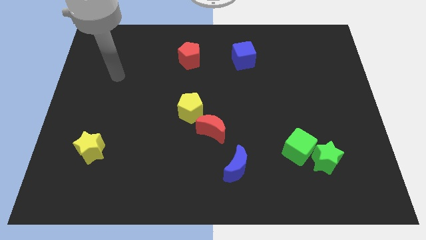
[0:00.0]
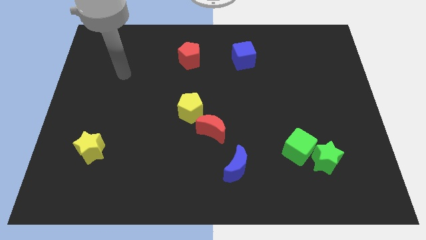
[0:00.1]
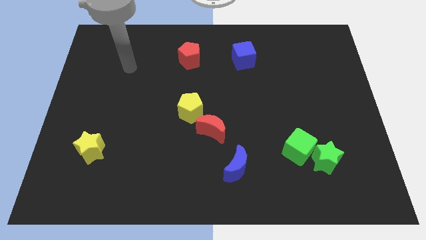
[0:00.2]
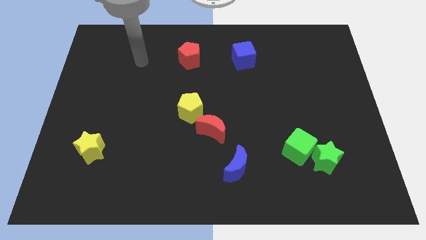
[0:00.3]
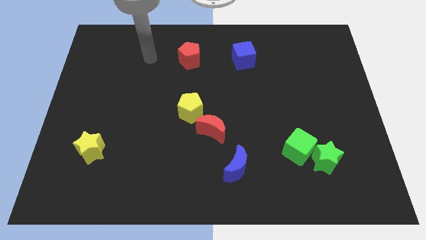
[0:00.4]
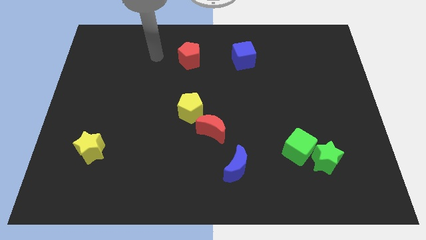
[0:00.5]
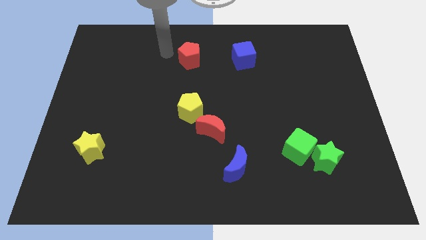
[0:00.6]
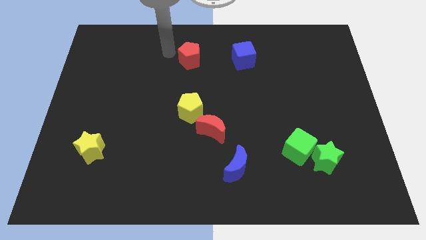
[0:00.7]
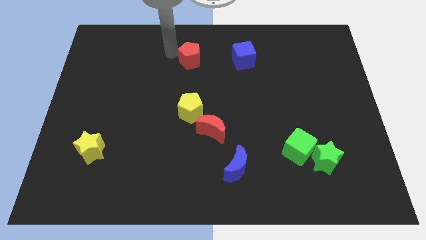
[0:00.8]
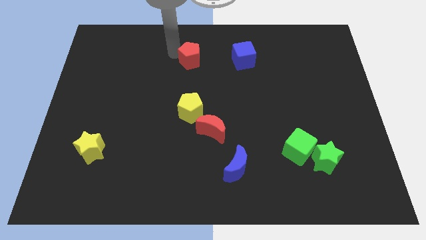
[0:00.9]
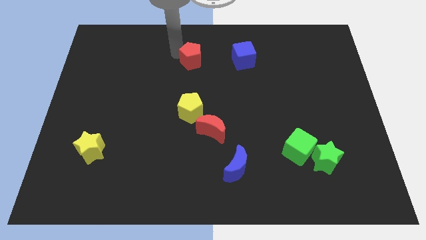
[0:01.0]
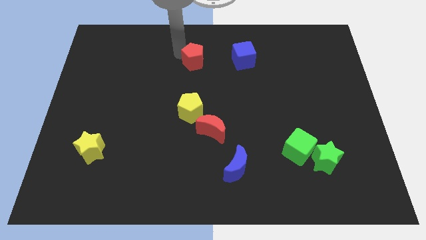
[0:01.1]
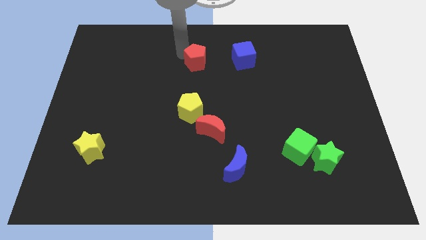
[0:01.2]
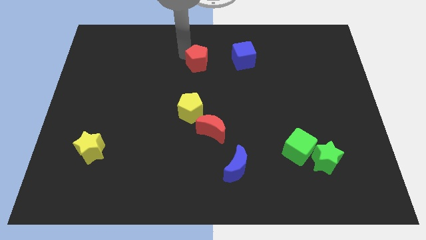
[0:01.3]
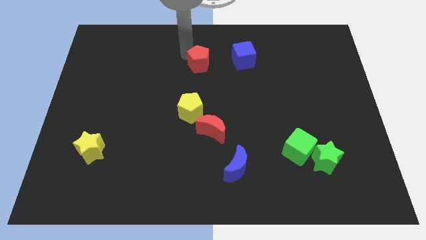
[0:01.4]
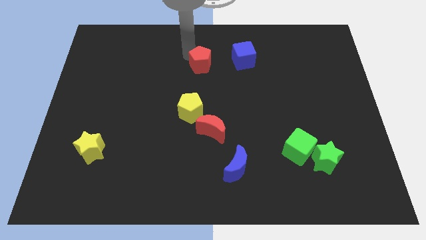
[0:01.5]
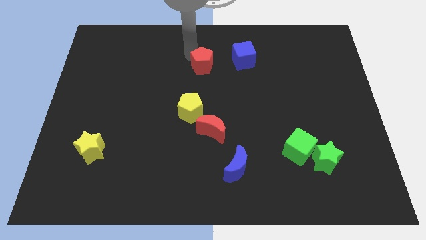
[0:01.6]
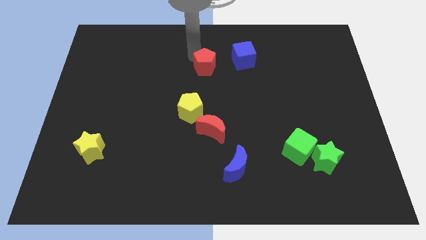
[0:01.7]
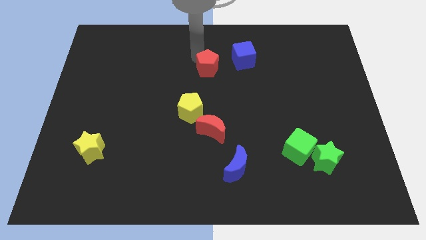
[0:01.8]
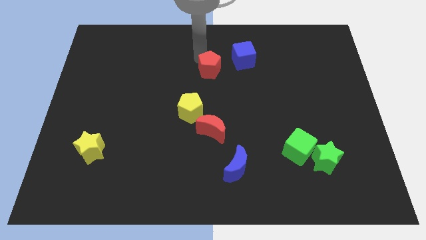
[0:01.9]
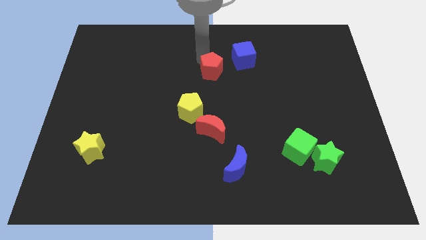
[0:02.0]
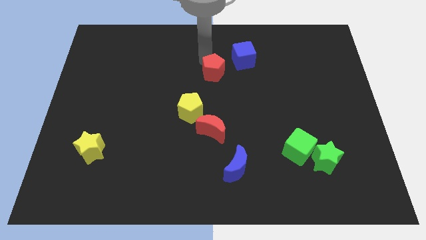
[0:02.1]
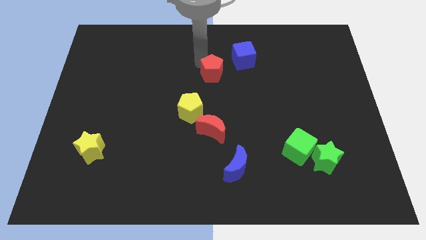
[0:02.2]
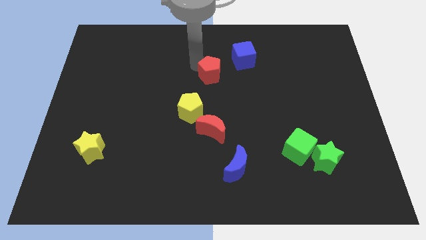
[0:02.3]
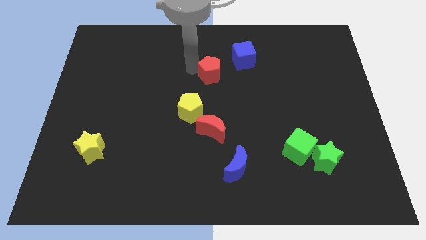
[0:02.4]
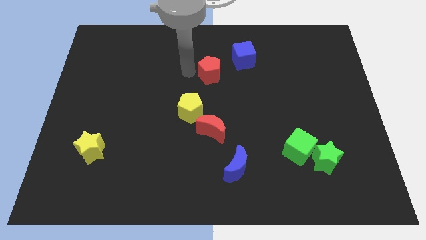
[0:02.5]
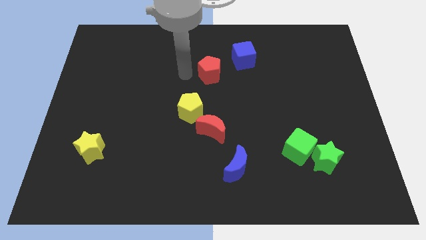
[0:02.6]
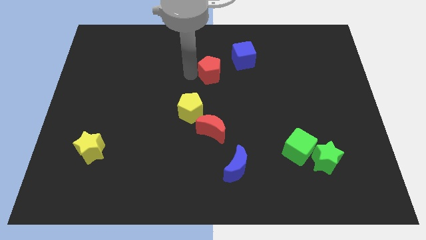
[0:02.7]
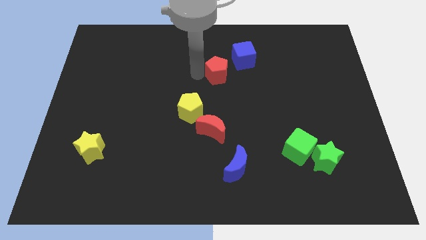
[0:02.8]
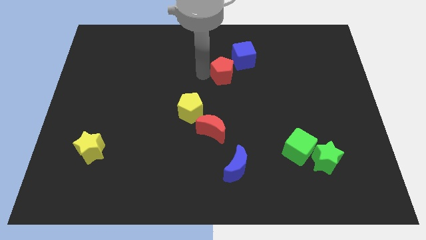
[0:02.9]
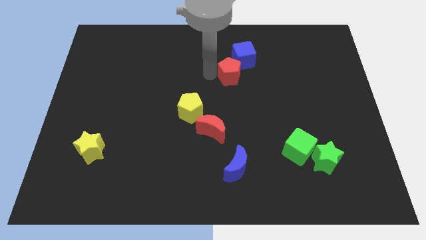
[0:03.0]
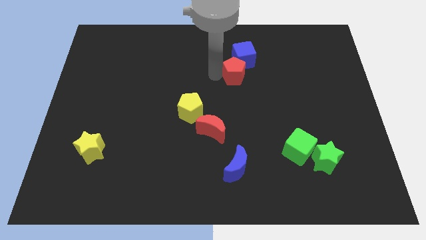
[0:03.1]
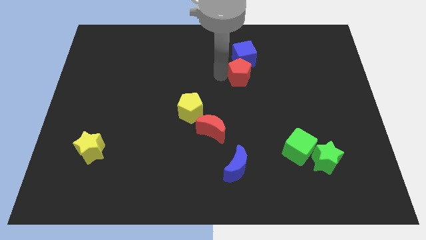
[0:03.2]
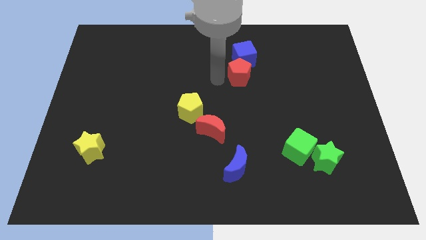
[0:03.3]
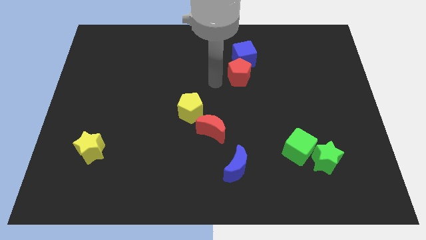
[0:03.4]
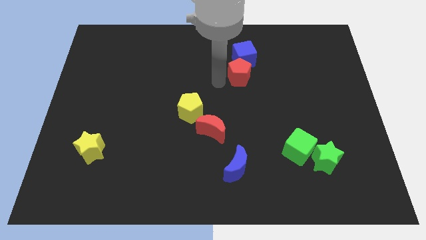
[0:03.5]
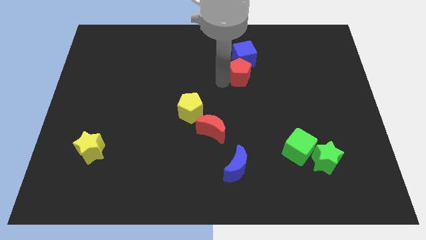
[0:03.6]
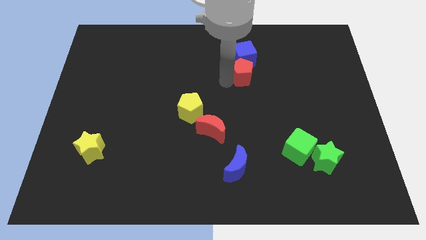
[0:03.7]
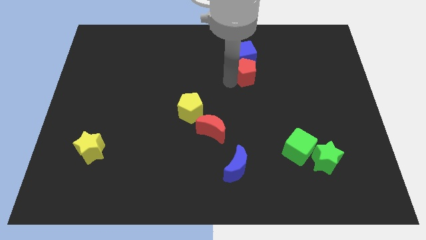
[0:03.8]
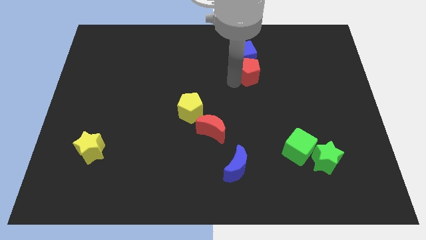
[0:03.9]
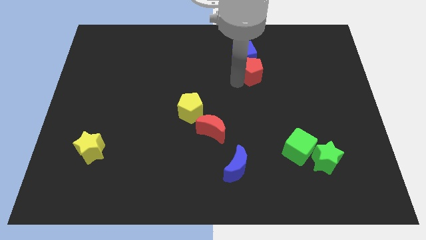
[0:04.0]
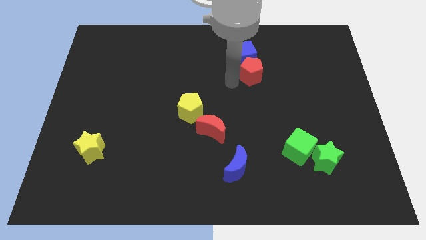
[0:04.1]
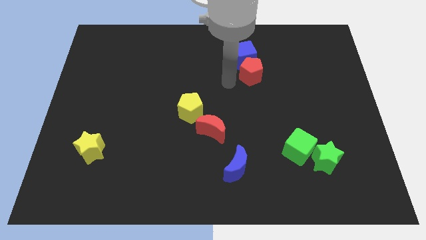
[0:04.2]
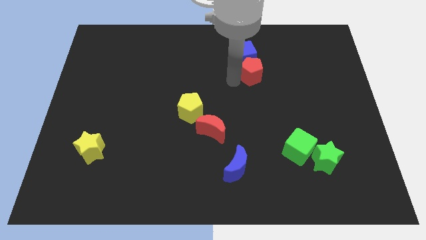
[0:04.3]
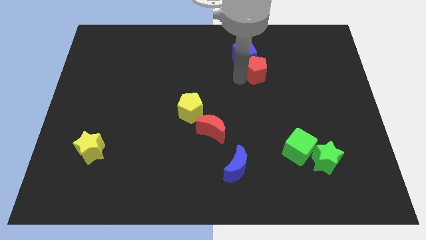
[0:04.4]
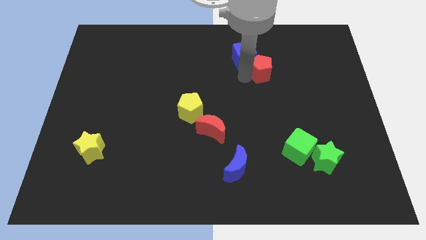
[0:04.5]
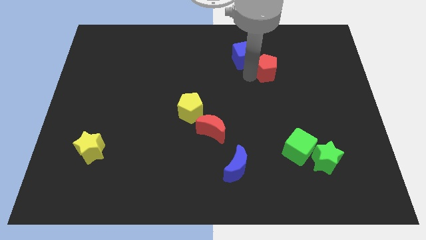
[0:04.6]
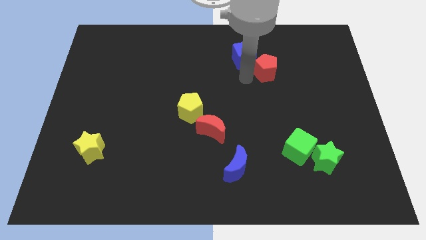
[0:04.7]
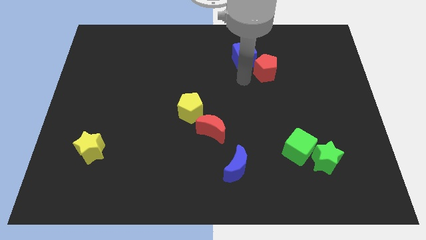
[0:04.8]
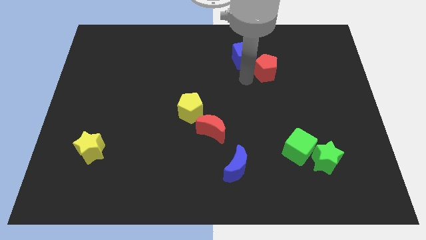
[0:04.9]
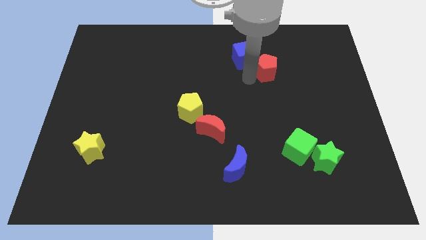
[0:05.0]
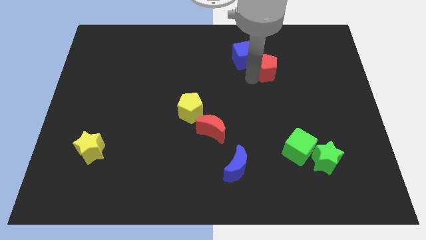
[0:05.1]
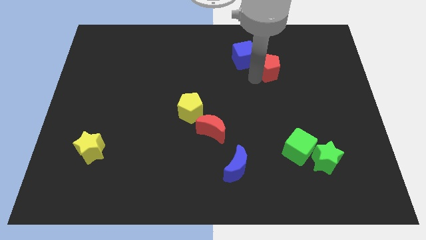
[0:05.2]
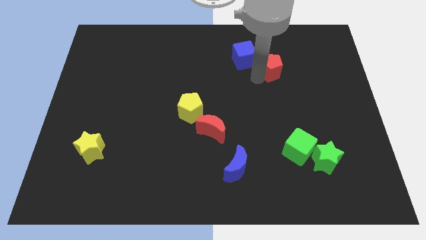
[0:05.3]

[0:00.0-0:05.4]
move the red pentagon right

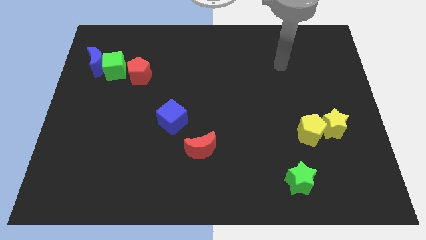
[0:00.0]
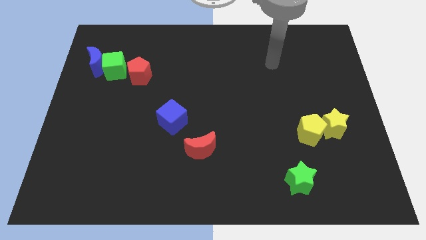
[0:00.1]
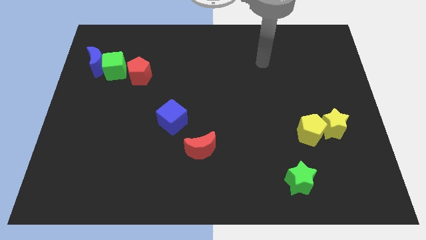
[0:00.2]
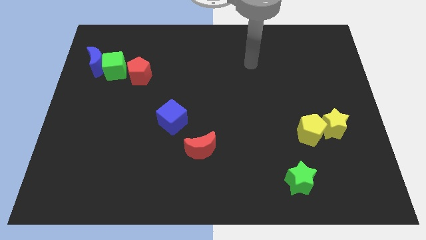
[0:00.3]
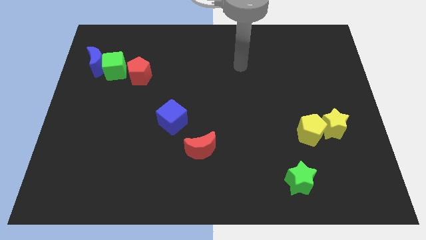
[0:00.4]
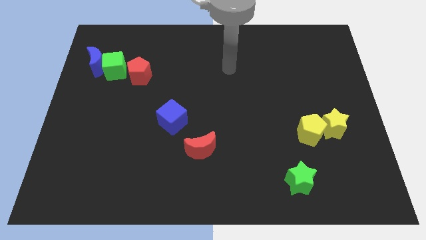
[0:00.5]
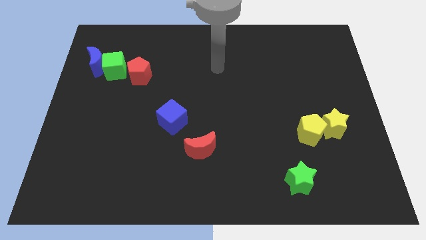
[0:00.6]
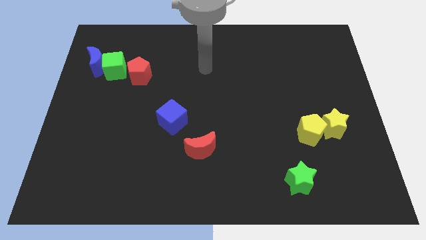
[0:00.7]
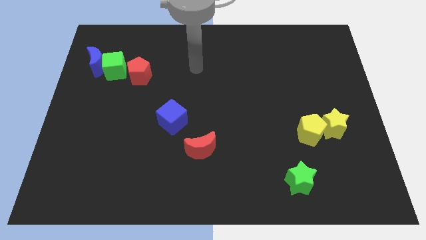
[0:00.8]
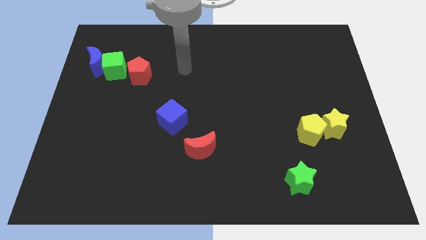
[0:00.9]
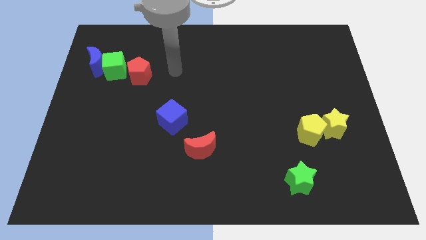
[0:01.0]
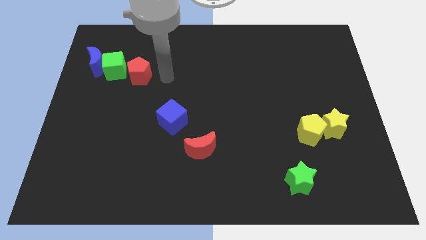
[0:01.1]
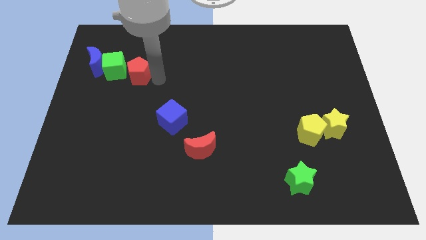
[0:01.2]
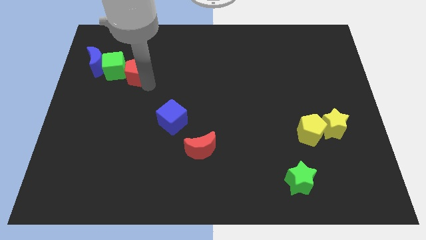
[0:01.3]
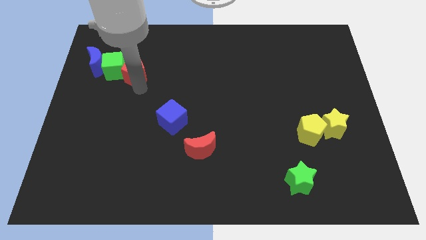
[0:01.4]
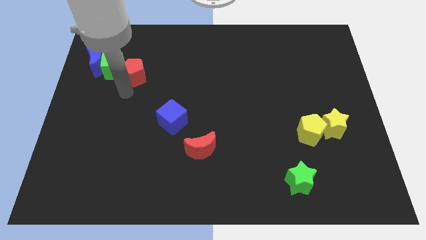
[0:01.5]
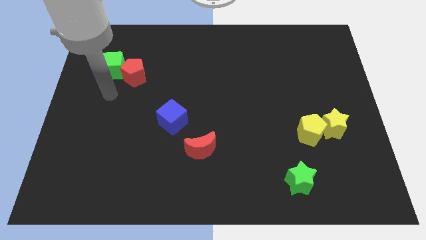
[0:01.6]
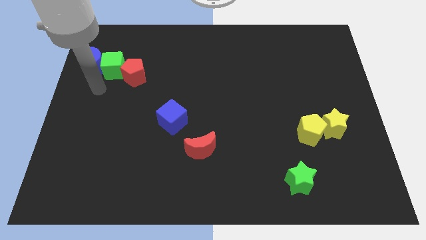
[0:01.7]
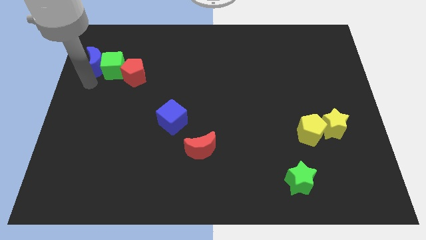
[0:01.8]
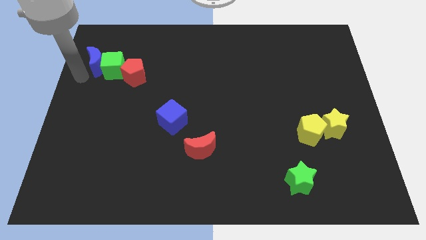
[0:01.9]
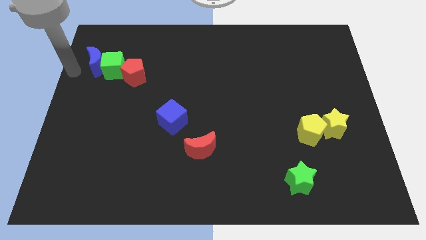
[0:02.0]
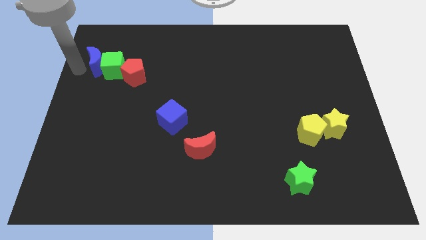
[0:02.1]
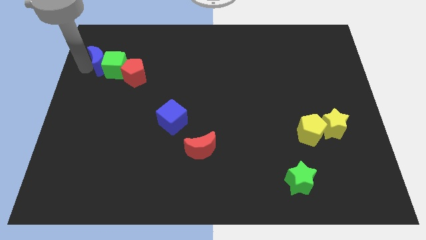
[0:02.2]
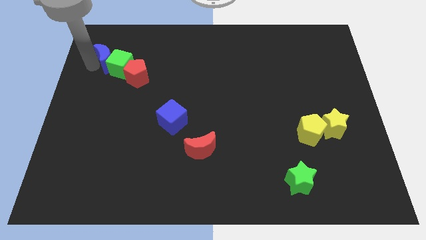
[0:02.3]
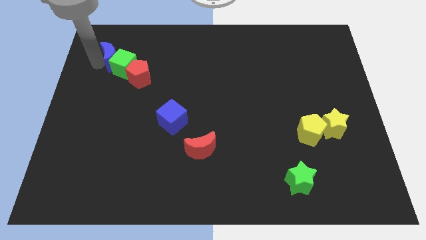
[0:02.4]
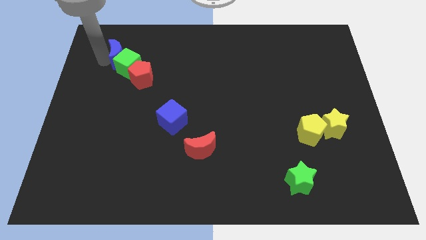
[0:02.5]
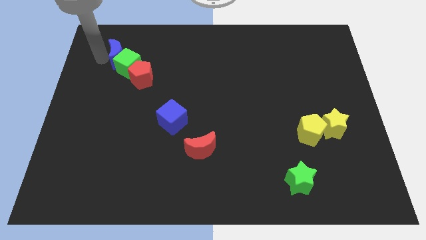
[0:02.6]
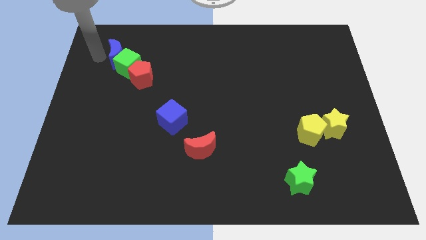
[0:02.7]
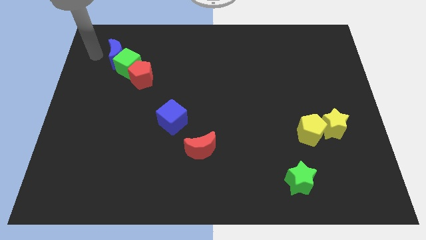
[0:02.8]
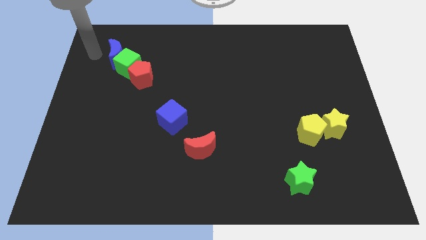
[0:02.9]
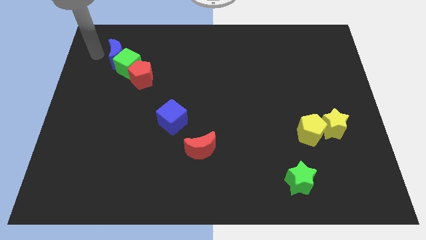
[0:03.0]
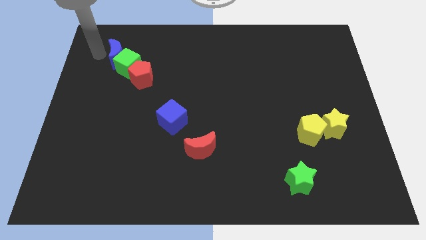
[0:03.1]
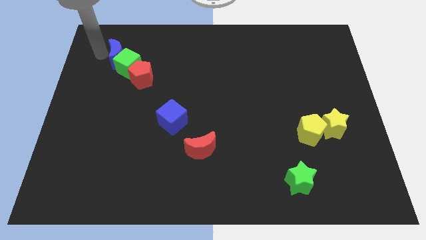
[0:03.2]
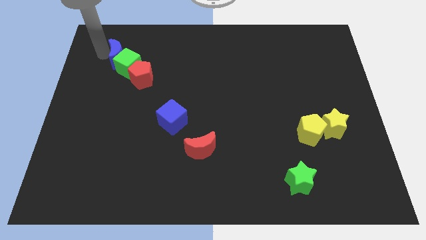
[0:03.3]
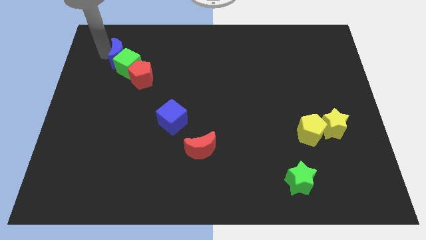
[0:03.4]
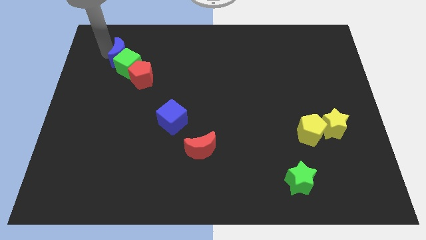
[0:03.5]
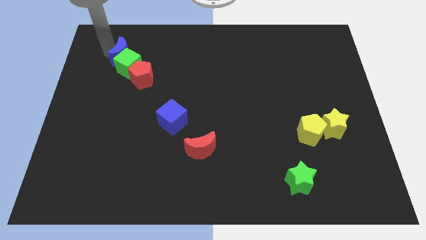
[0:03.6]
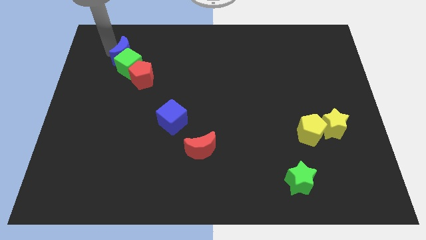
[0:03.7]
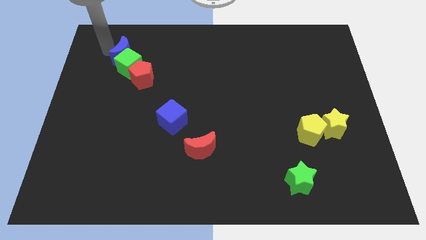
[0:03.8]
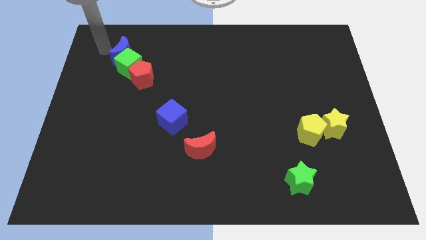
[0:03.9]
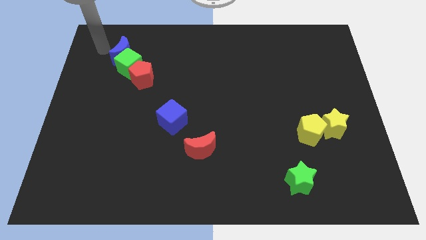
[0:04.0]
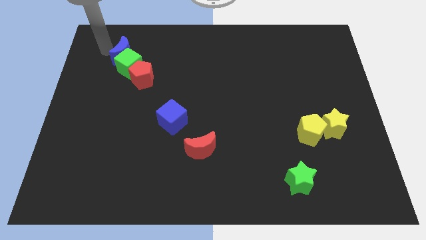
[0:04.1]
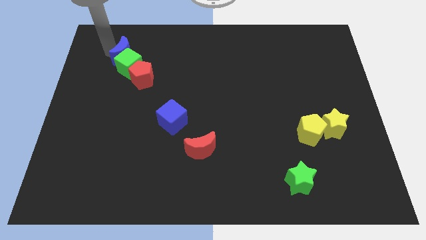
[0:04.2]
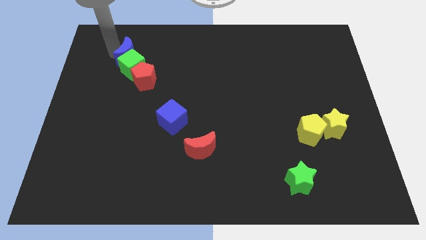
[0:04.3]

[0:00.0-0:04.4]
slightly move the blue moon to the right
